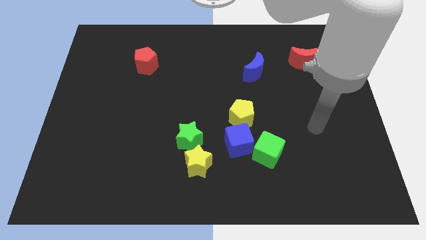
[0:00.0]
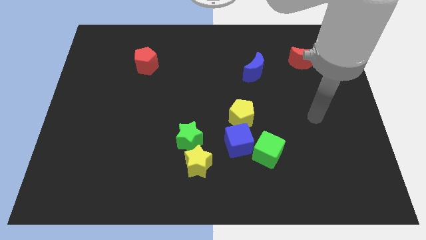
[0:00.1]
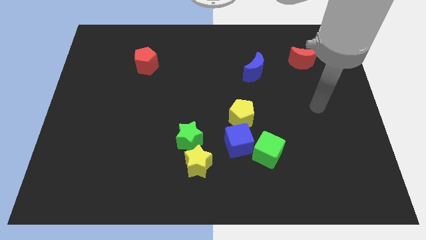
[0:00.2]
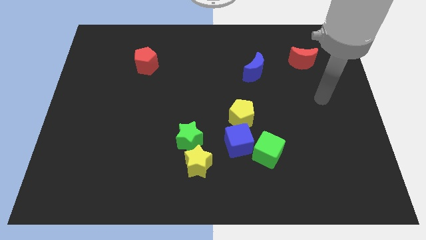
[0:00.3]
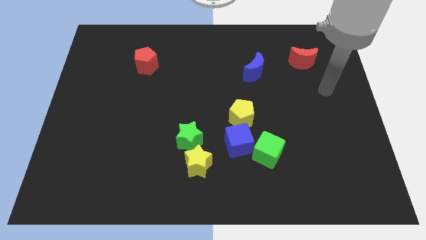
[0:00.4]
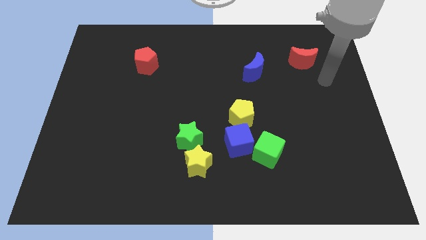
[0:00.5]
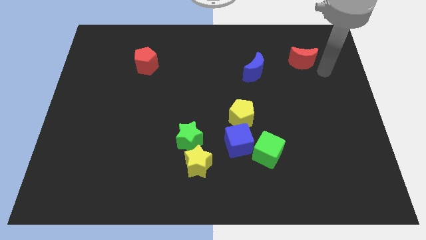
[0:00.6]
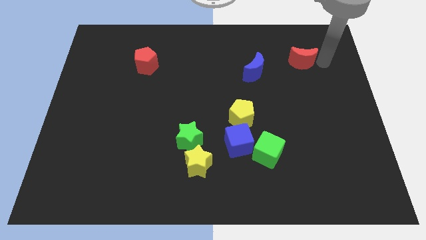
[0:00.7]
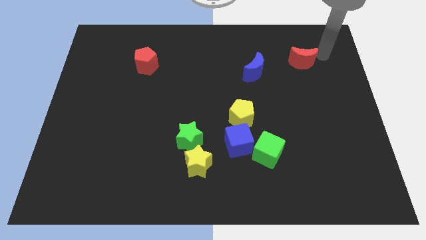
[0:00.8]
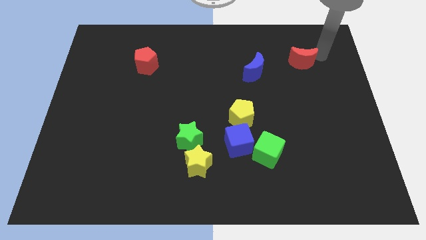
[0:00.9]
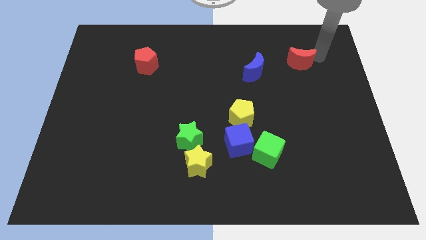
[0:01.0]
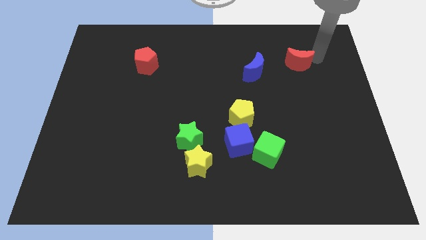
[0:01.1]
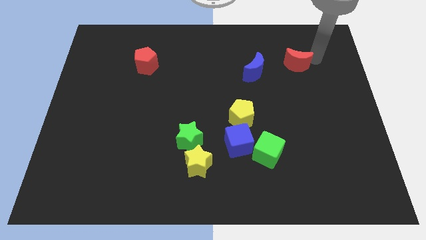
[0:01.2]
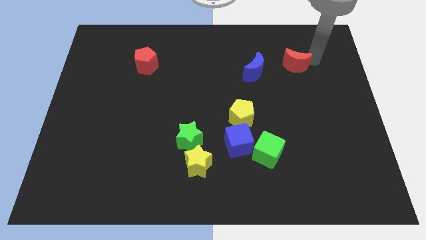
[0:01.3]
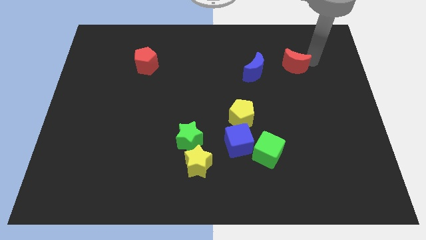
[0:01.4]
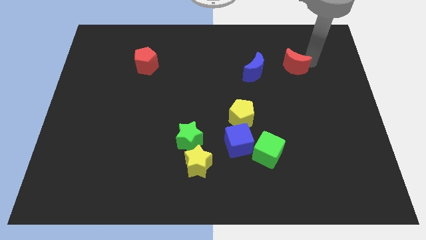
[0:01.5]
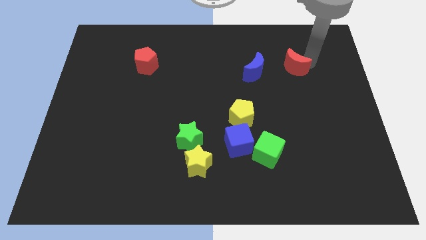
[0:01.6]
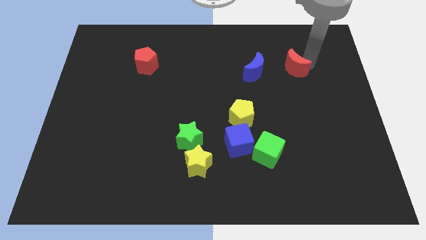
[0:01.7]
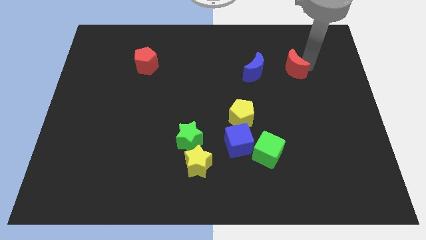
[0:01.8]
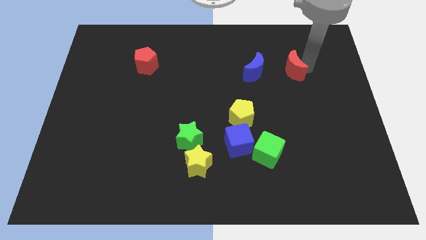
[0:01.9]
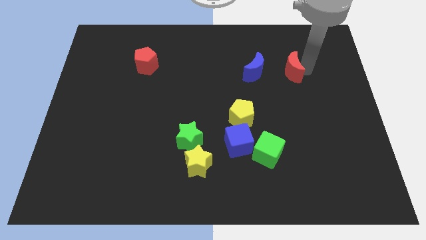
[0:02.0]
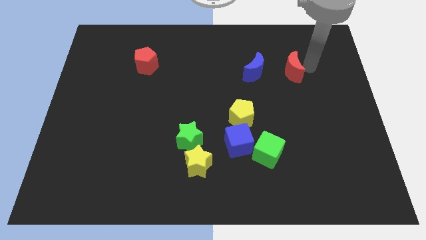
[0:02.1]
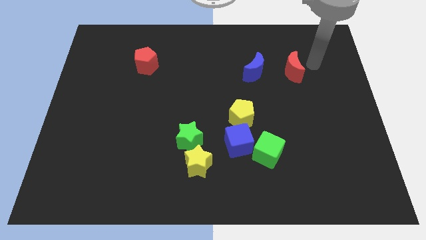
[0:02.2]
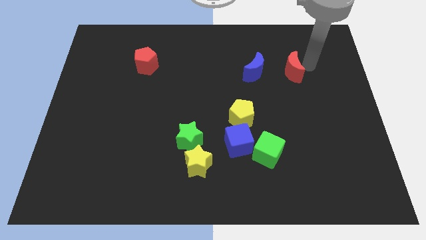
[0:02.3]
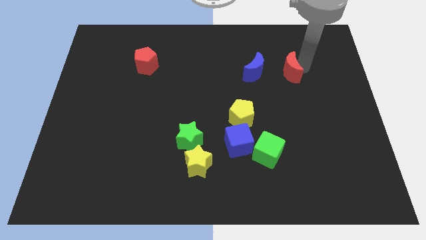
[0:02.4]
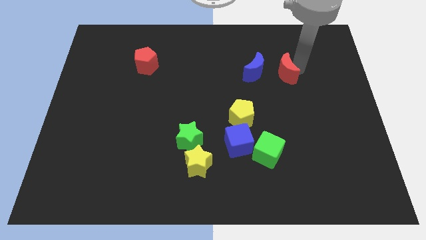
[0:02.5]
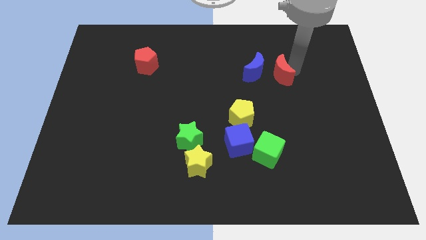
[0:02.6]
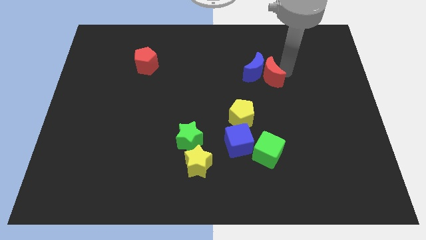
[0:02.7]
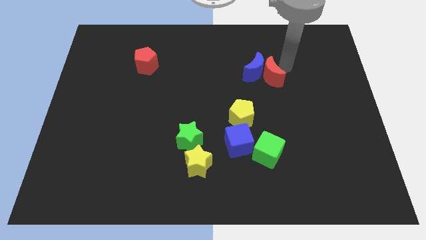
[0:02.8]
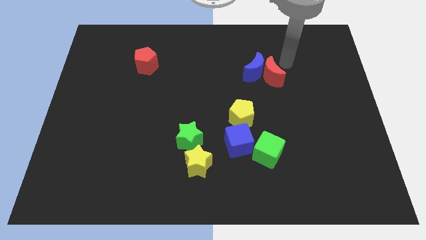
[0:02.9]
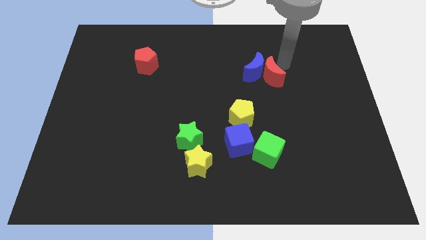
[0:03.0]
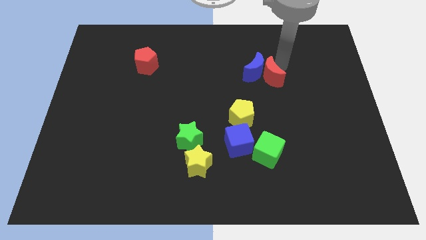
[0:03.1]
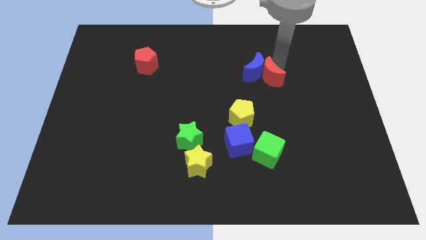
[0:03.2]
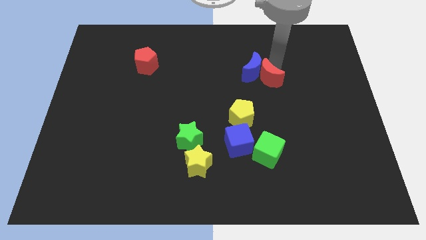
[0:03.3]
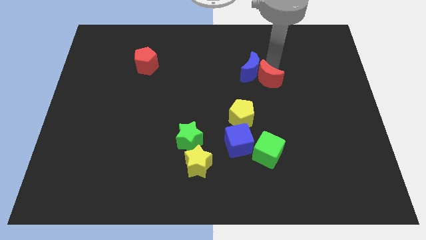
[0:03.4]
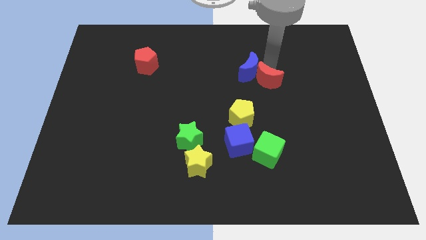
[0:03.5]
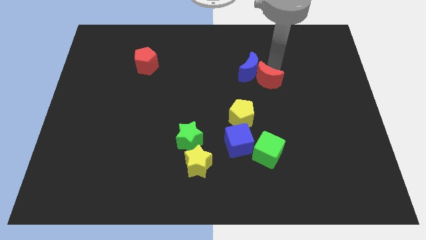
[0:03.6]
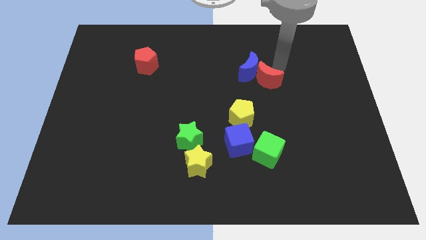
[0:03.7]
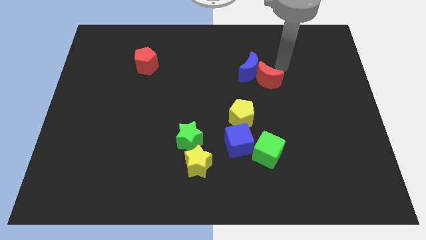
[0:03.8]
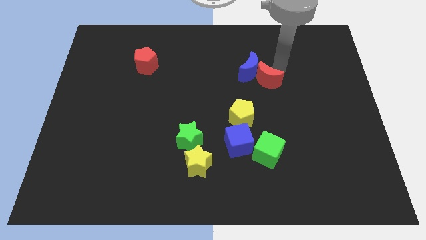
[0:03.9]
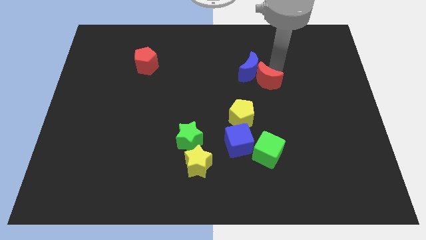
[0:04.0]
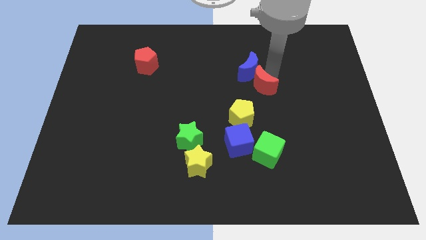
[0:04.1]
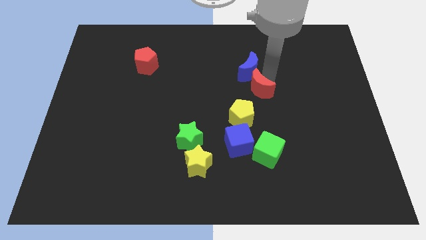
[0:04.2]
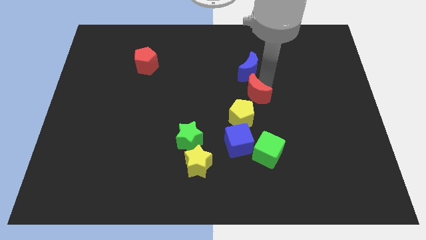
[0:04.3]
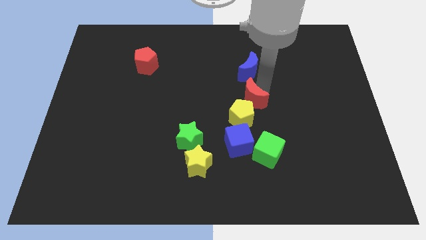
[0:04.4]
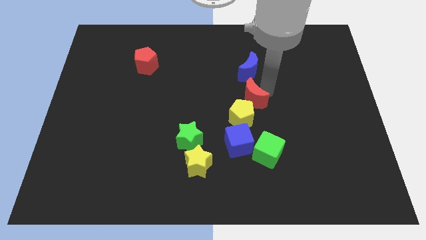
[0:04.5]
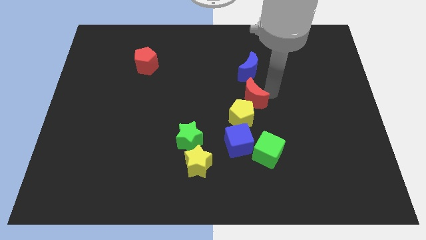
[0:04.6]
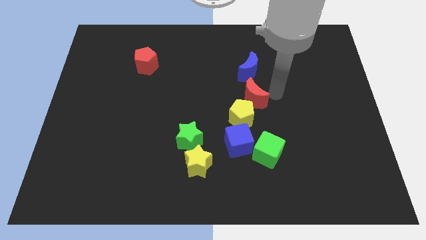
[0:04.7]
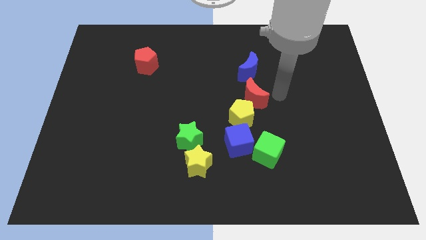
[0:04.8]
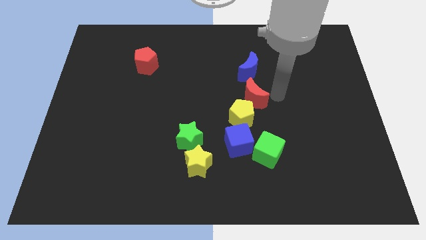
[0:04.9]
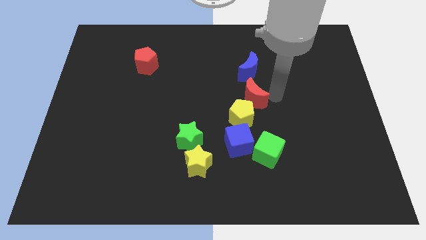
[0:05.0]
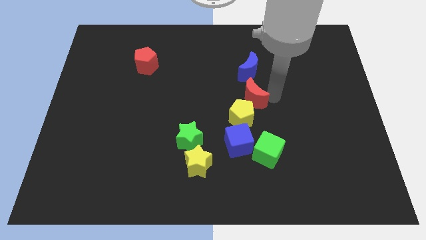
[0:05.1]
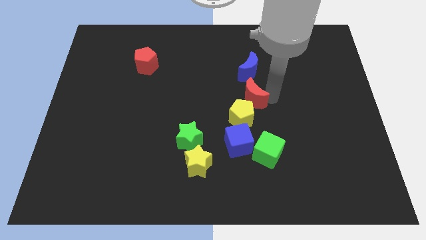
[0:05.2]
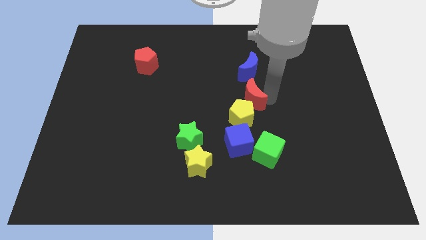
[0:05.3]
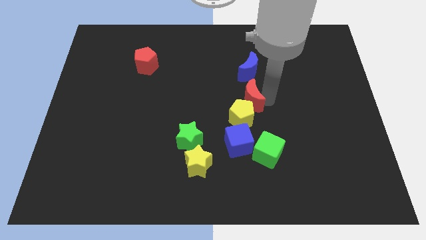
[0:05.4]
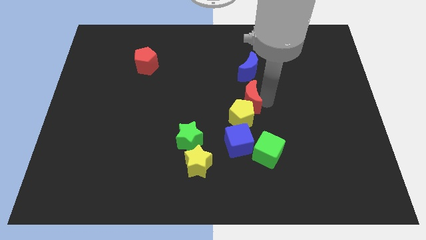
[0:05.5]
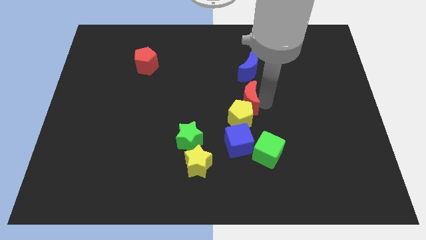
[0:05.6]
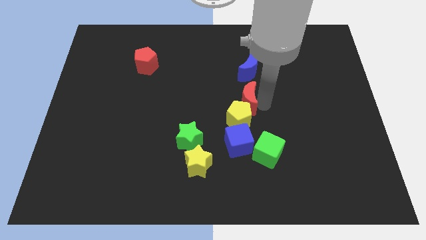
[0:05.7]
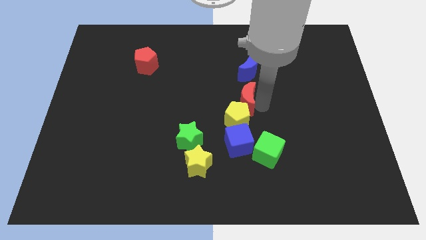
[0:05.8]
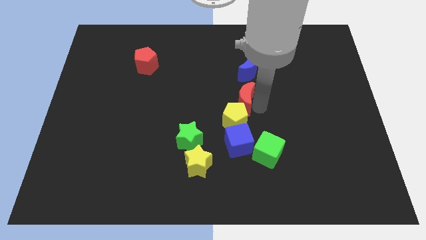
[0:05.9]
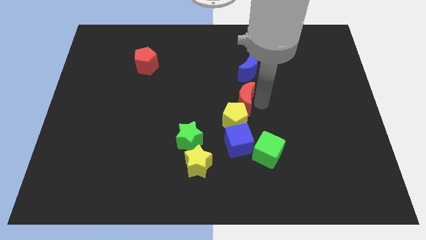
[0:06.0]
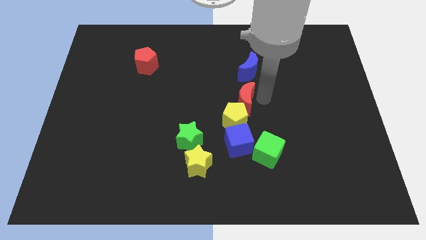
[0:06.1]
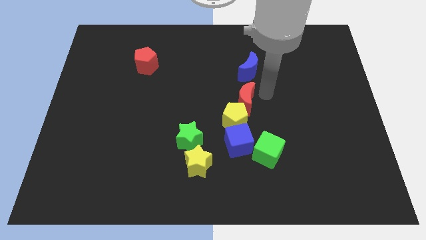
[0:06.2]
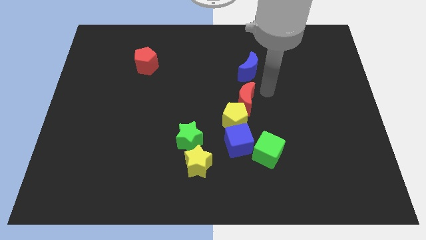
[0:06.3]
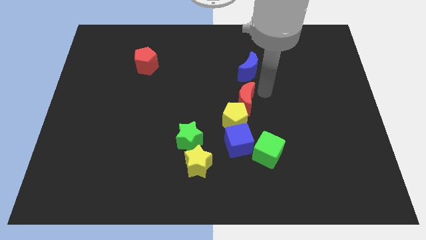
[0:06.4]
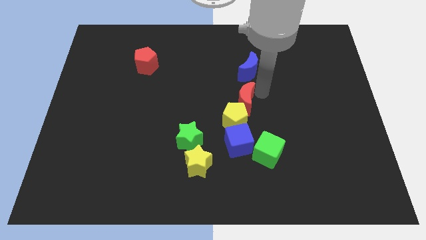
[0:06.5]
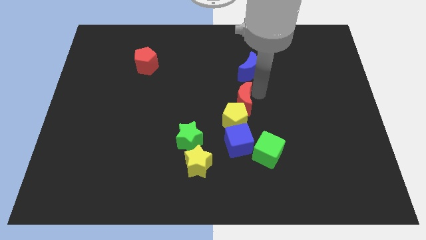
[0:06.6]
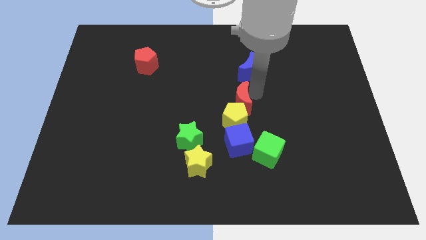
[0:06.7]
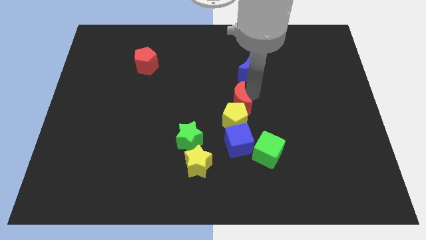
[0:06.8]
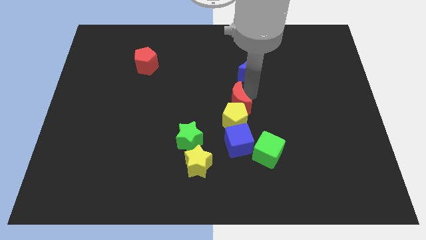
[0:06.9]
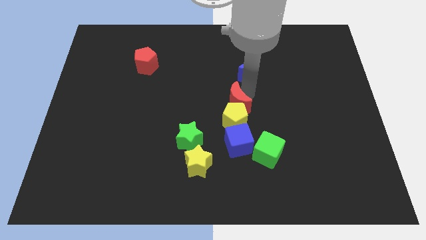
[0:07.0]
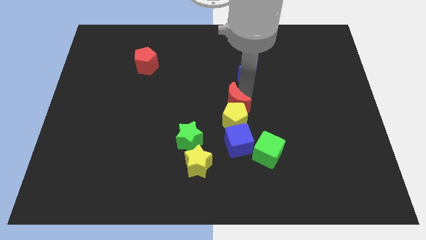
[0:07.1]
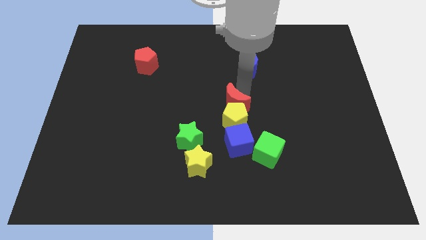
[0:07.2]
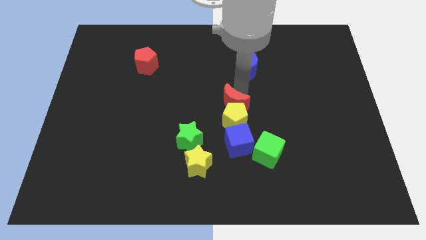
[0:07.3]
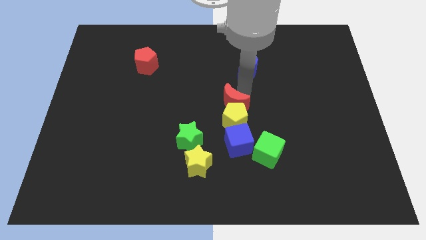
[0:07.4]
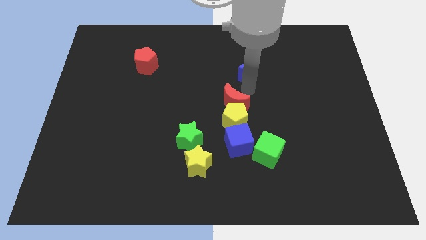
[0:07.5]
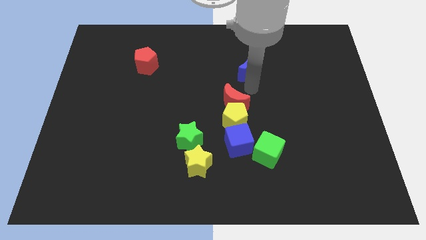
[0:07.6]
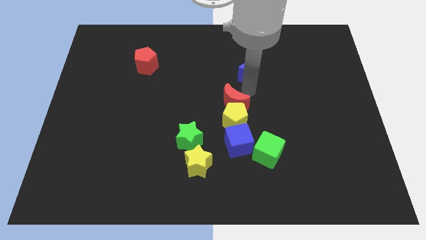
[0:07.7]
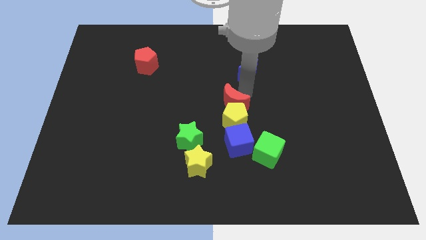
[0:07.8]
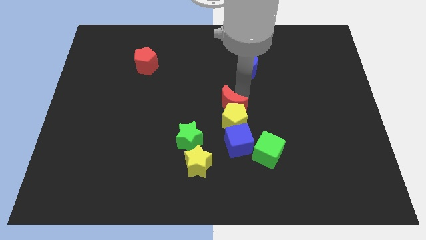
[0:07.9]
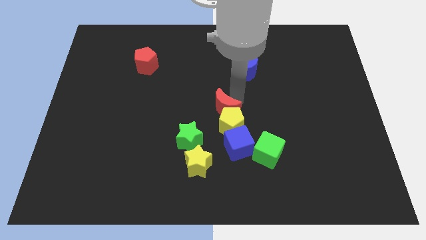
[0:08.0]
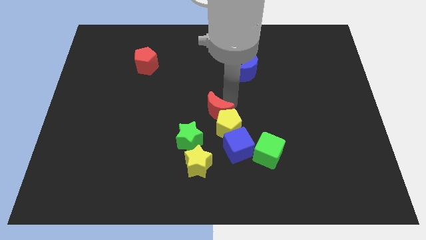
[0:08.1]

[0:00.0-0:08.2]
slide the red moon diagonally up and to the left of the blue cube

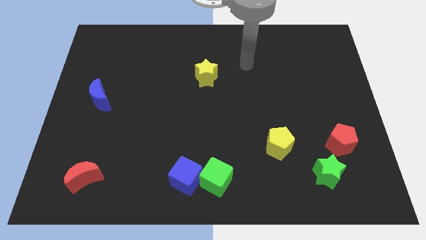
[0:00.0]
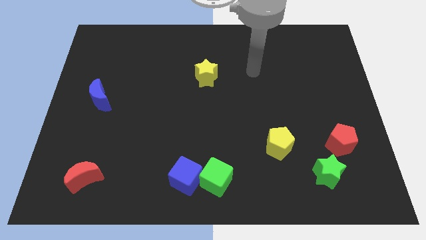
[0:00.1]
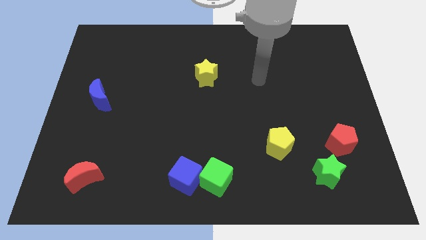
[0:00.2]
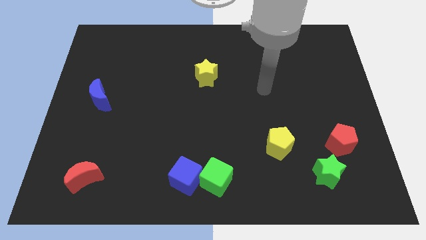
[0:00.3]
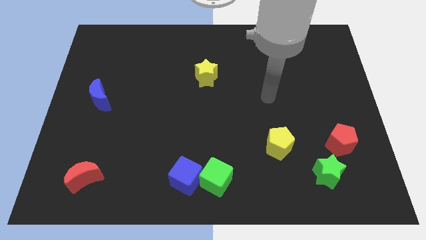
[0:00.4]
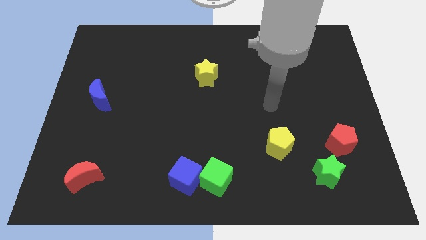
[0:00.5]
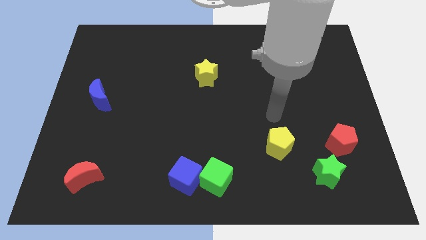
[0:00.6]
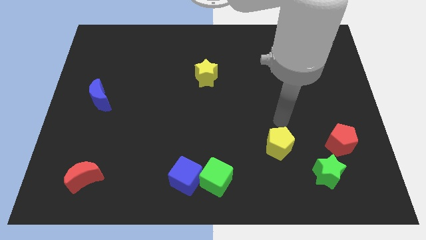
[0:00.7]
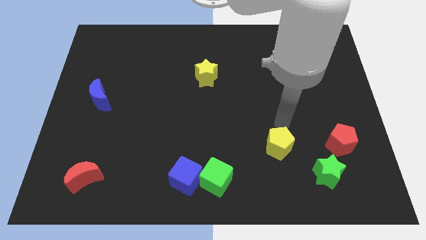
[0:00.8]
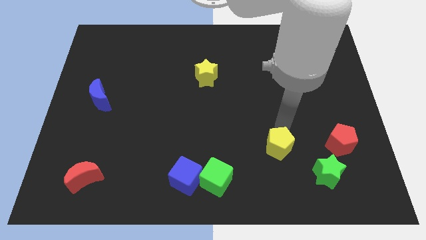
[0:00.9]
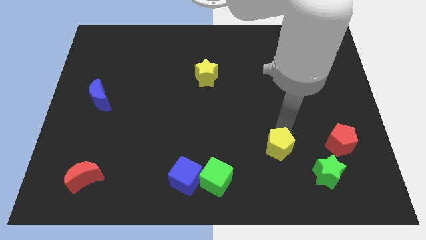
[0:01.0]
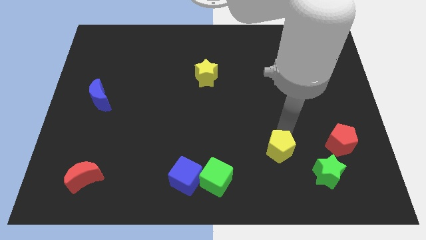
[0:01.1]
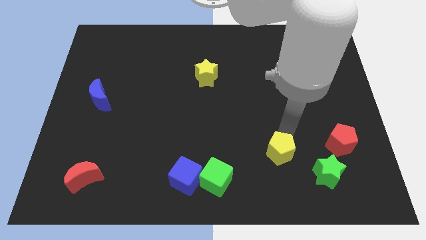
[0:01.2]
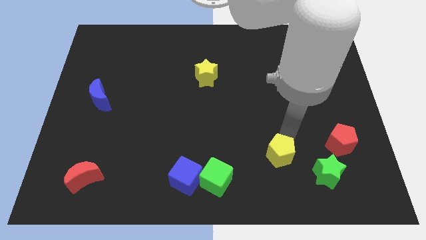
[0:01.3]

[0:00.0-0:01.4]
slide the yellow pentagon just left of the green star
